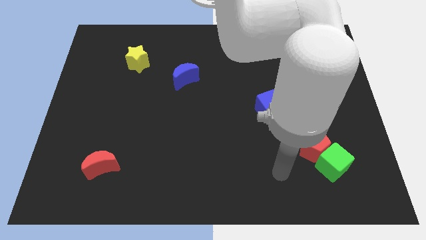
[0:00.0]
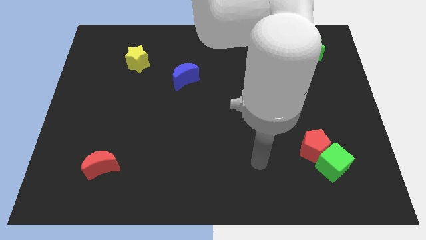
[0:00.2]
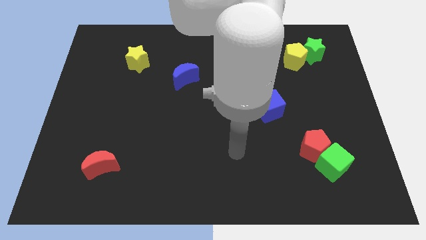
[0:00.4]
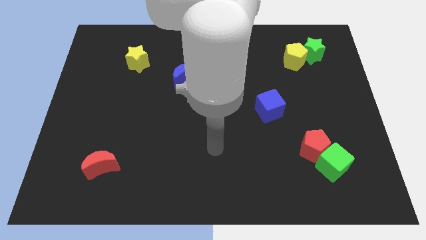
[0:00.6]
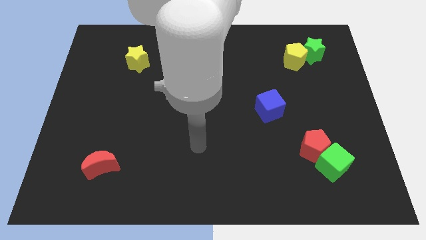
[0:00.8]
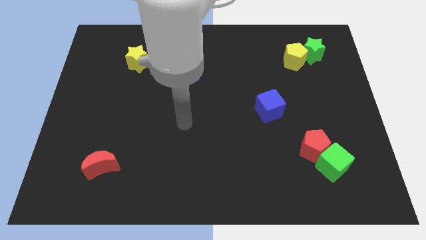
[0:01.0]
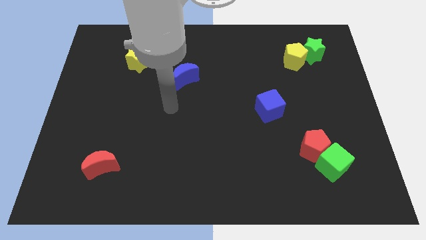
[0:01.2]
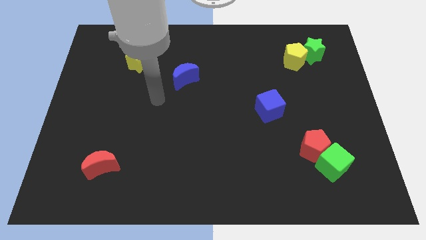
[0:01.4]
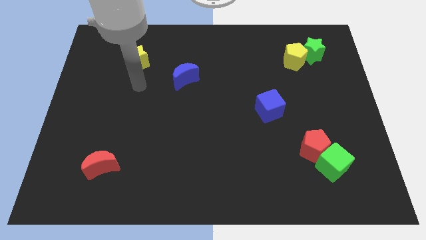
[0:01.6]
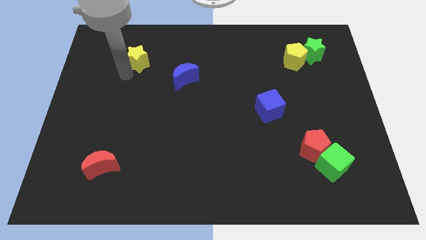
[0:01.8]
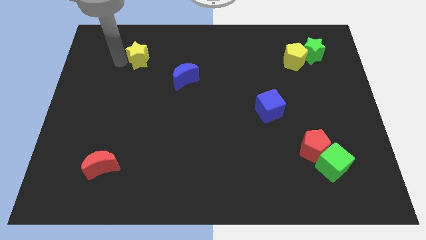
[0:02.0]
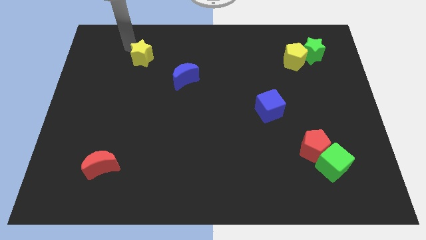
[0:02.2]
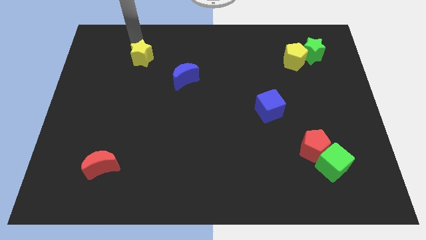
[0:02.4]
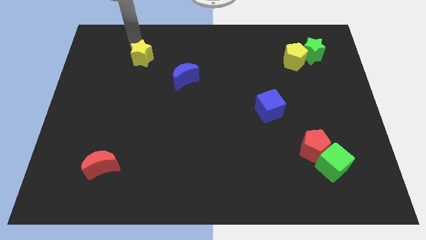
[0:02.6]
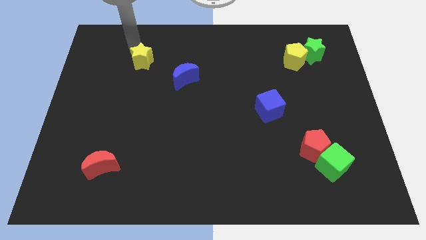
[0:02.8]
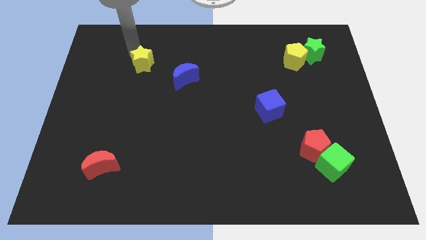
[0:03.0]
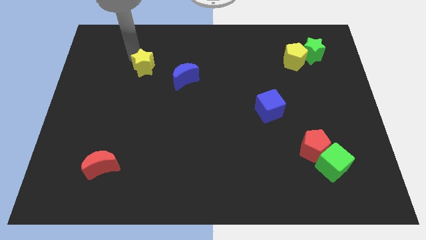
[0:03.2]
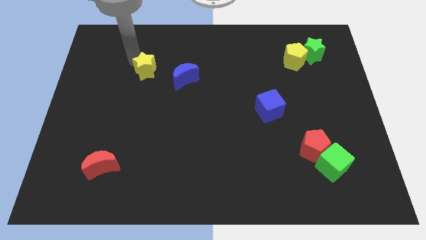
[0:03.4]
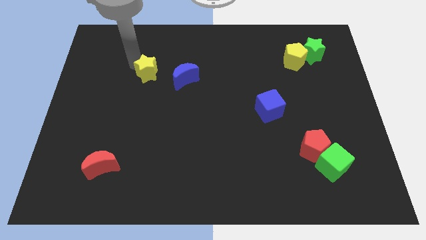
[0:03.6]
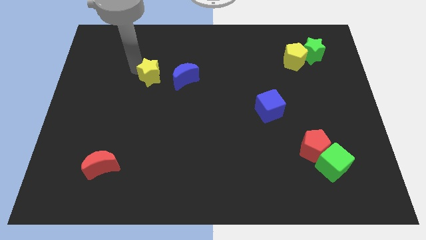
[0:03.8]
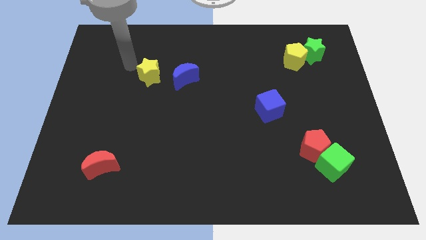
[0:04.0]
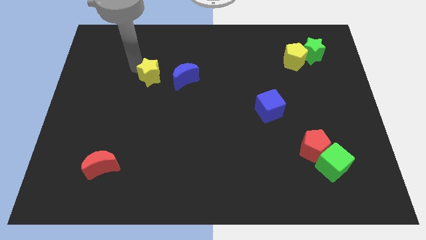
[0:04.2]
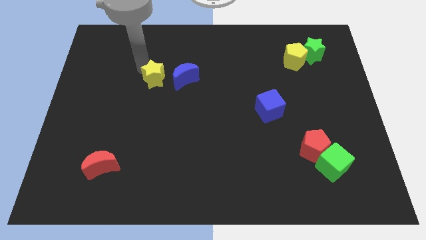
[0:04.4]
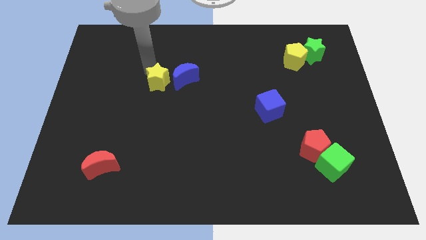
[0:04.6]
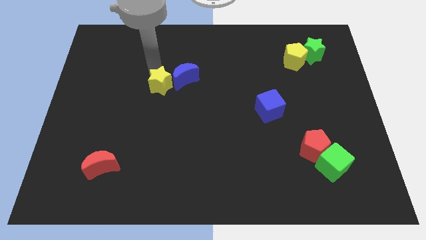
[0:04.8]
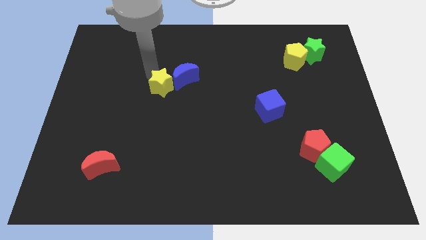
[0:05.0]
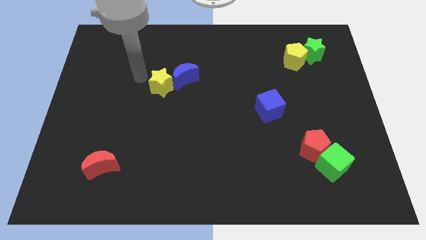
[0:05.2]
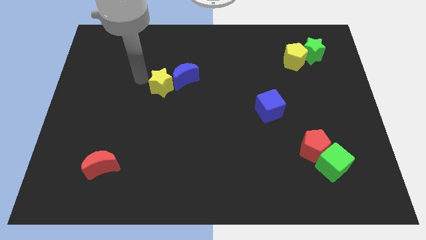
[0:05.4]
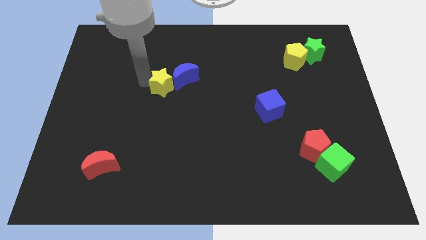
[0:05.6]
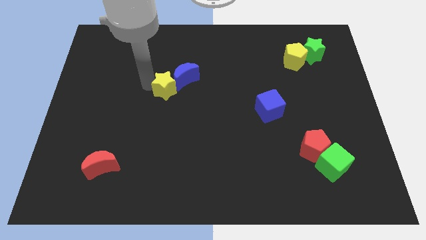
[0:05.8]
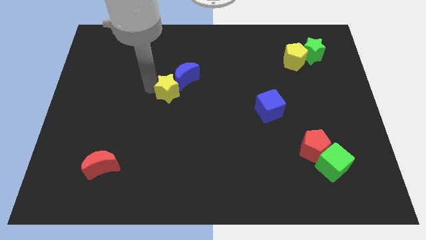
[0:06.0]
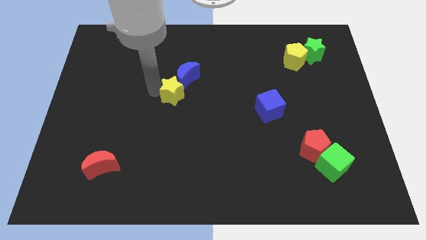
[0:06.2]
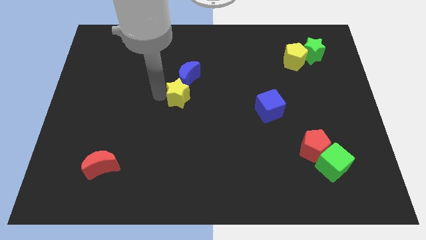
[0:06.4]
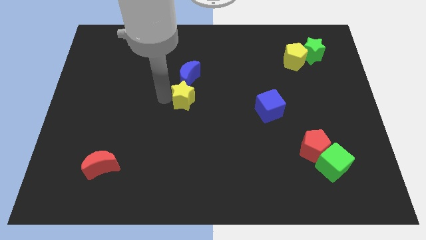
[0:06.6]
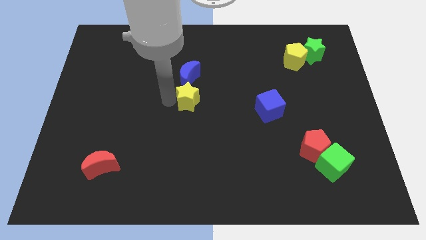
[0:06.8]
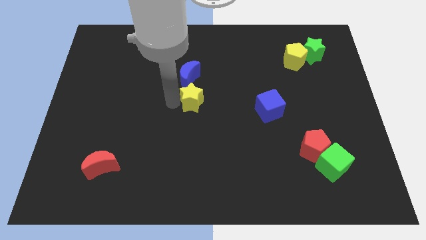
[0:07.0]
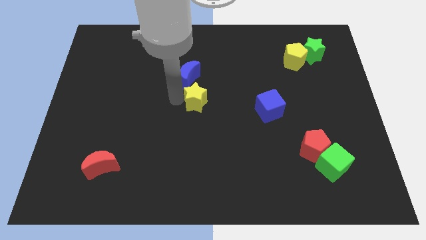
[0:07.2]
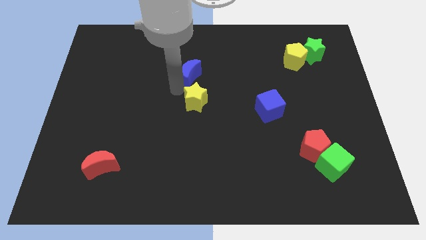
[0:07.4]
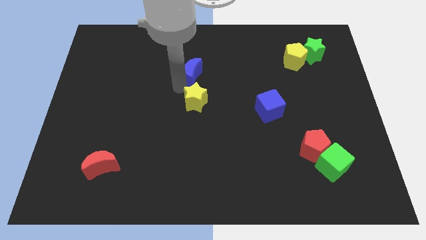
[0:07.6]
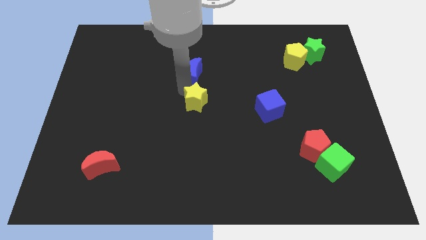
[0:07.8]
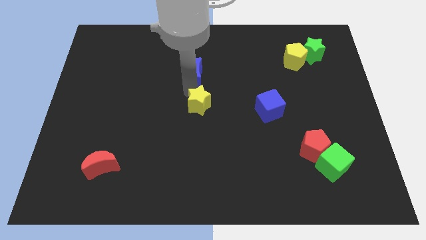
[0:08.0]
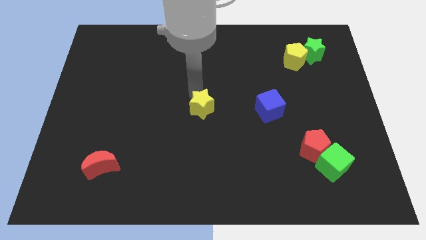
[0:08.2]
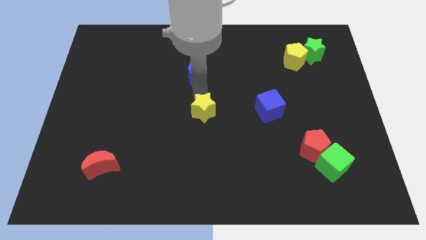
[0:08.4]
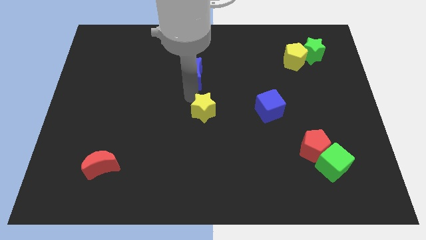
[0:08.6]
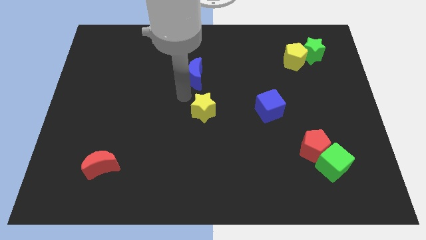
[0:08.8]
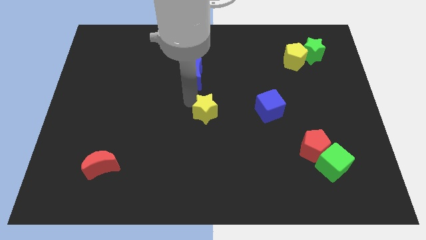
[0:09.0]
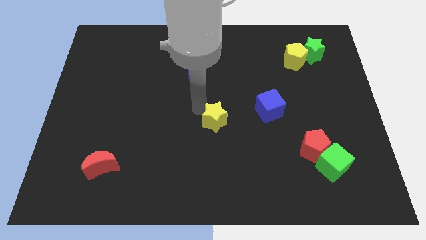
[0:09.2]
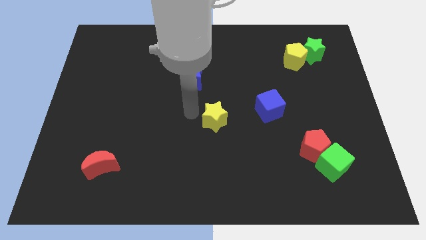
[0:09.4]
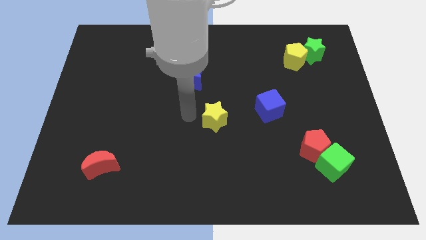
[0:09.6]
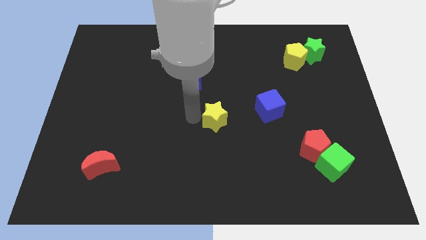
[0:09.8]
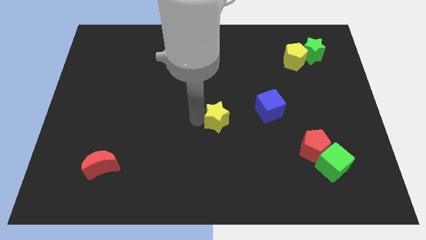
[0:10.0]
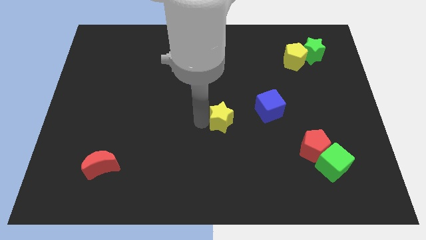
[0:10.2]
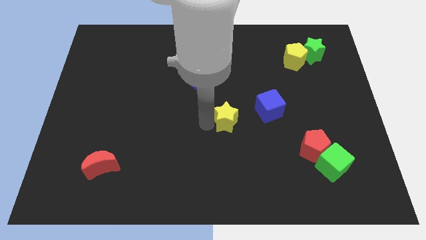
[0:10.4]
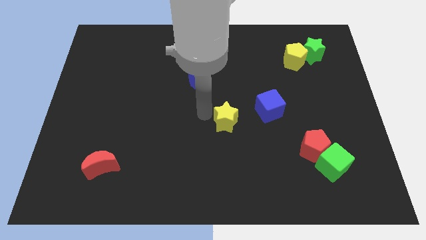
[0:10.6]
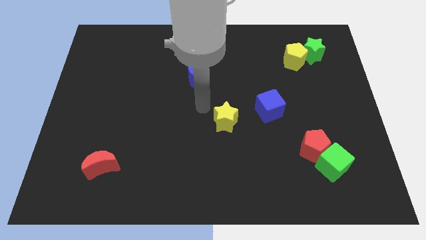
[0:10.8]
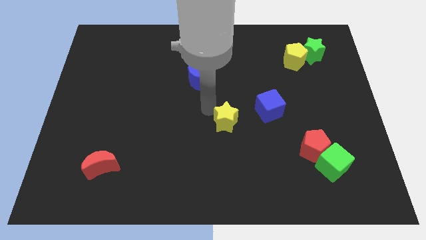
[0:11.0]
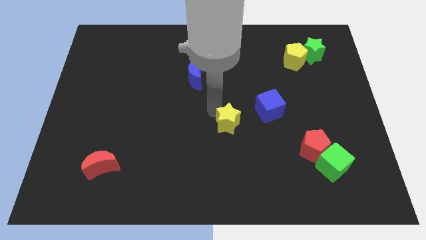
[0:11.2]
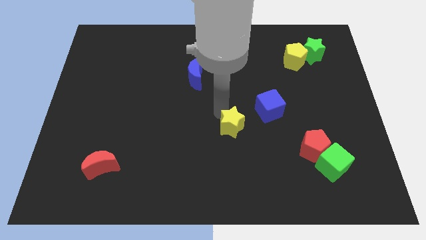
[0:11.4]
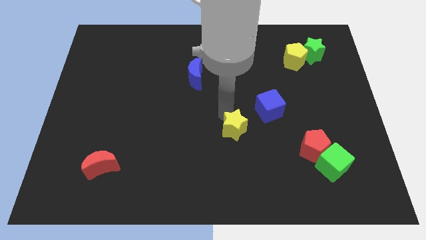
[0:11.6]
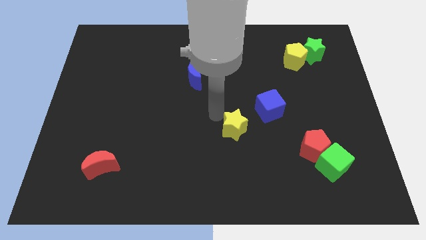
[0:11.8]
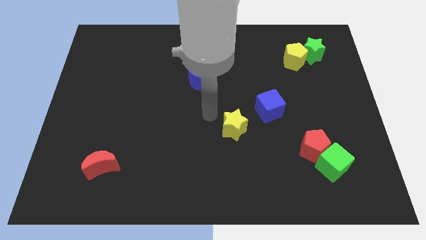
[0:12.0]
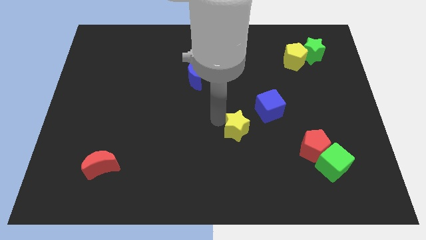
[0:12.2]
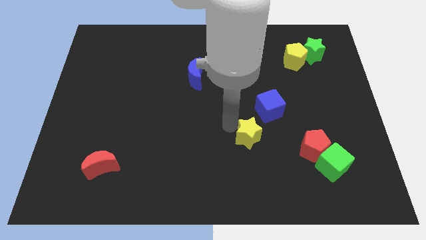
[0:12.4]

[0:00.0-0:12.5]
slide the yellow star left of the red pentagon

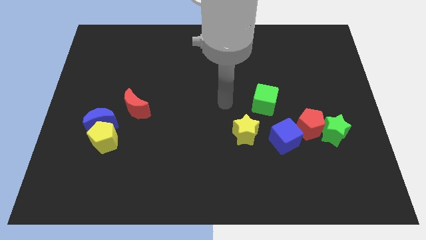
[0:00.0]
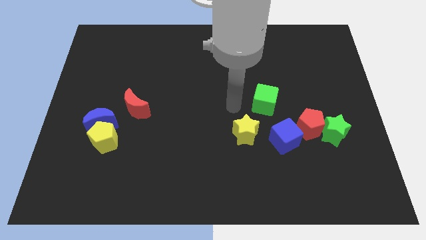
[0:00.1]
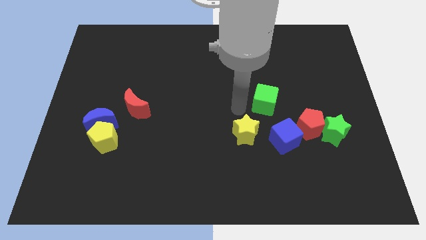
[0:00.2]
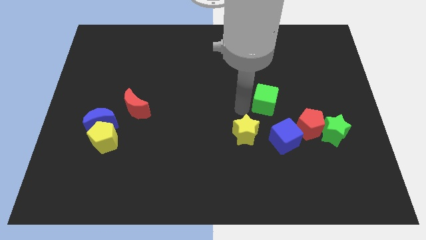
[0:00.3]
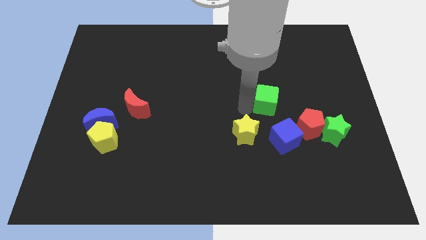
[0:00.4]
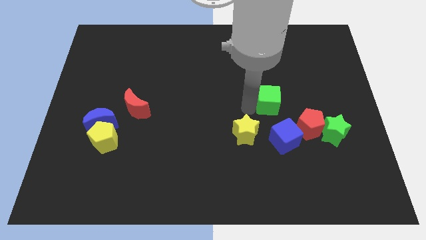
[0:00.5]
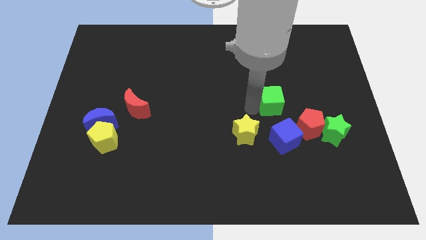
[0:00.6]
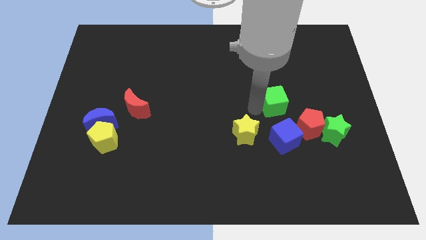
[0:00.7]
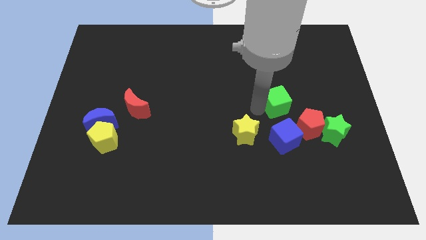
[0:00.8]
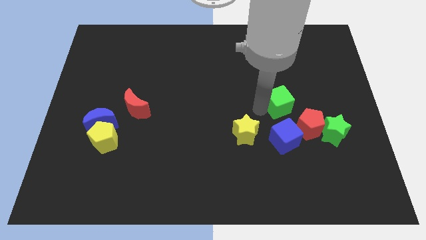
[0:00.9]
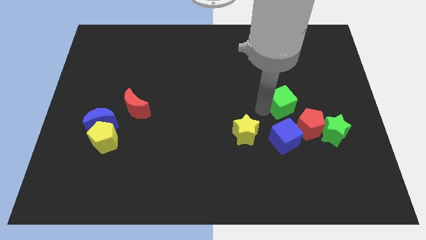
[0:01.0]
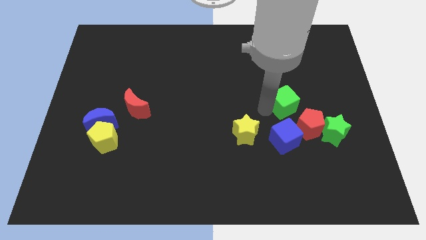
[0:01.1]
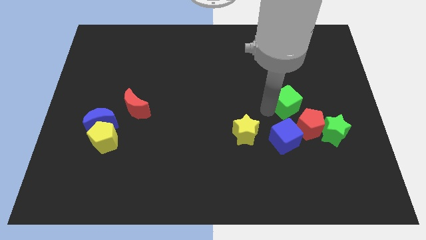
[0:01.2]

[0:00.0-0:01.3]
move the green cube to the top side of the red pentagon

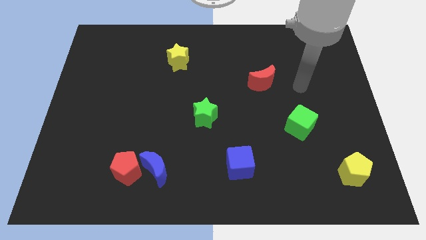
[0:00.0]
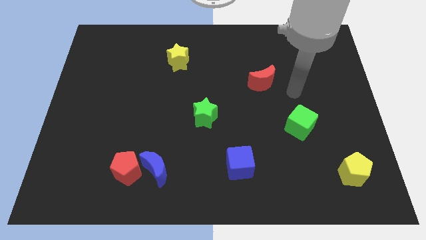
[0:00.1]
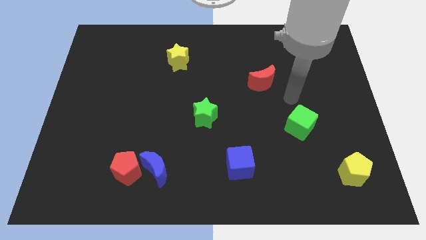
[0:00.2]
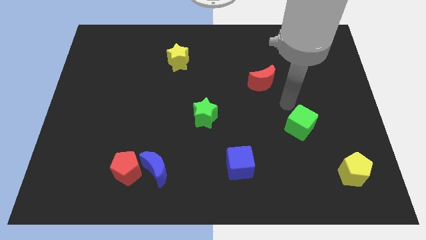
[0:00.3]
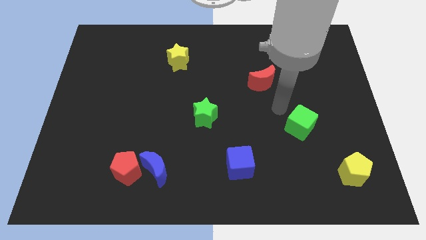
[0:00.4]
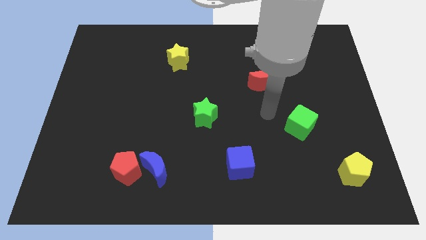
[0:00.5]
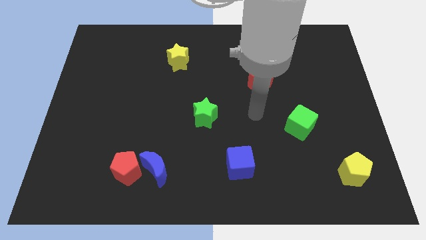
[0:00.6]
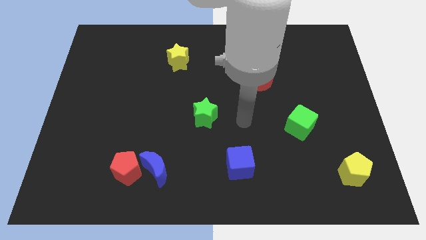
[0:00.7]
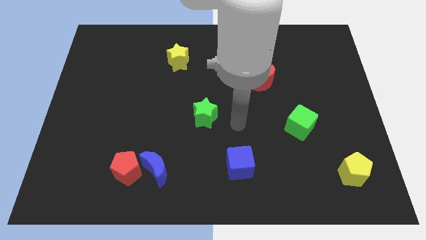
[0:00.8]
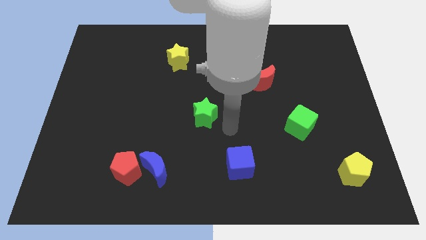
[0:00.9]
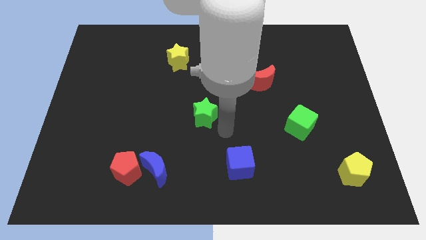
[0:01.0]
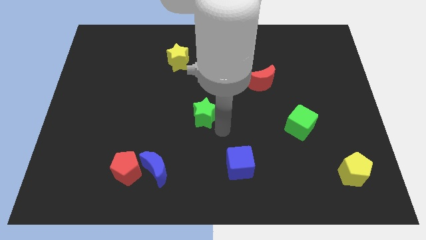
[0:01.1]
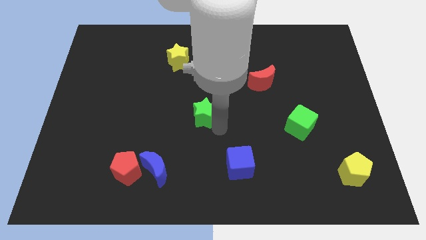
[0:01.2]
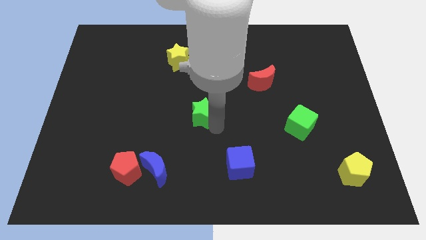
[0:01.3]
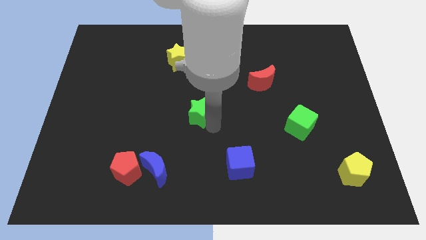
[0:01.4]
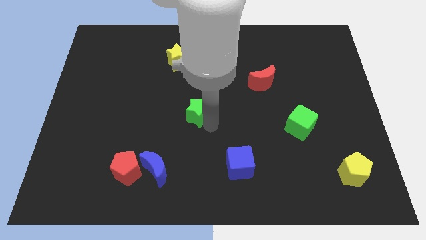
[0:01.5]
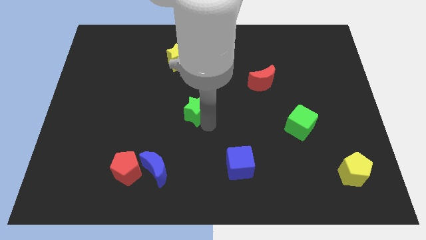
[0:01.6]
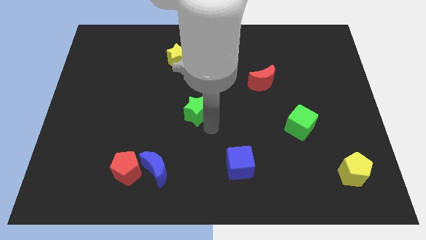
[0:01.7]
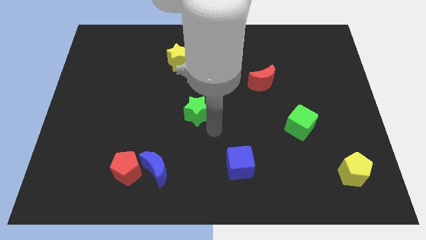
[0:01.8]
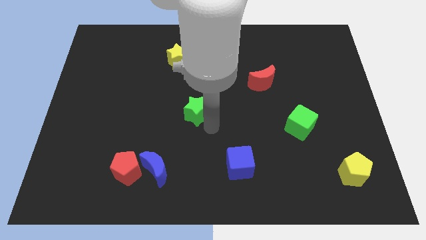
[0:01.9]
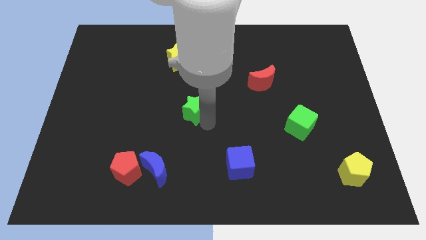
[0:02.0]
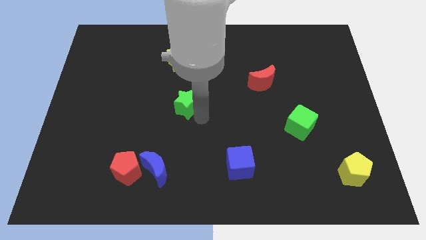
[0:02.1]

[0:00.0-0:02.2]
move the green star to the bottom side of the yellow star
